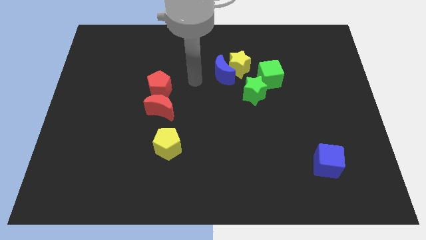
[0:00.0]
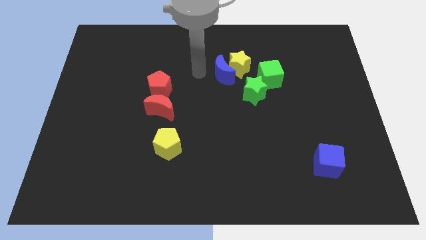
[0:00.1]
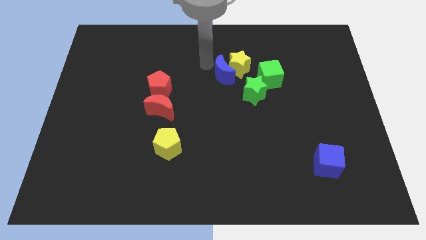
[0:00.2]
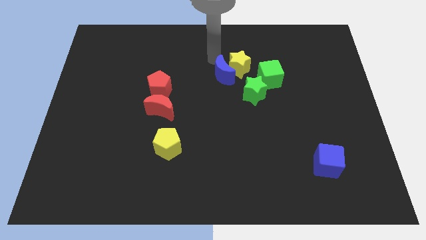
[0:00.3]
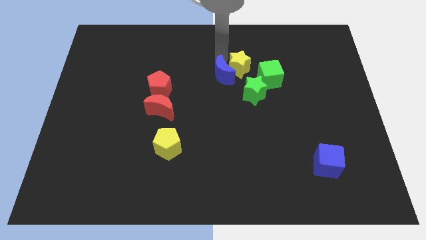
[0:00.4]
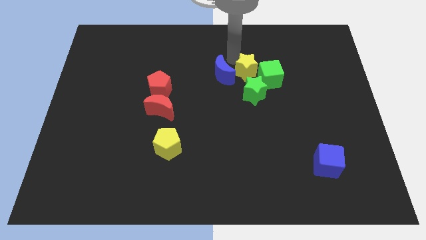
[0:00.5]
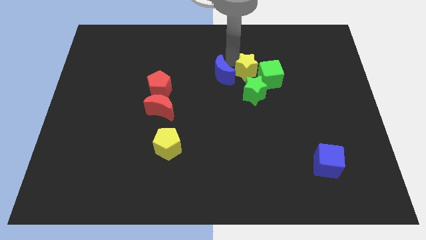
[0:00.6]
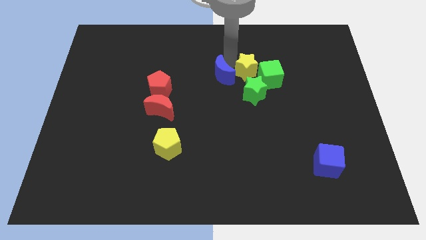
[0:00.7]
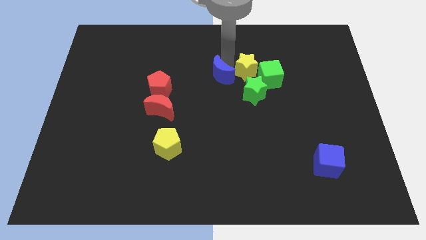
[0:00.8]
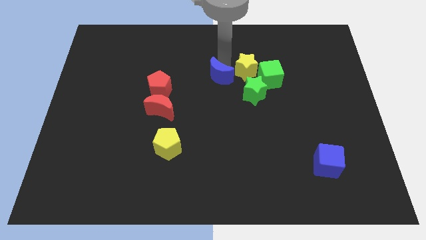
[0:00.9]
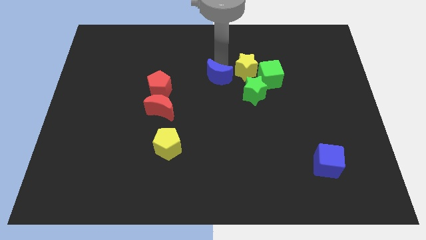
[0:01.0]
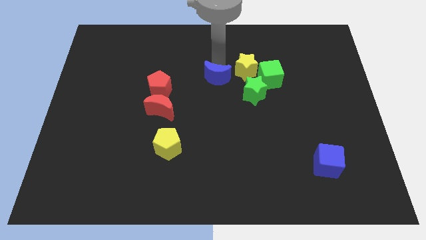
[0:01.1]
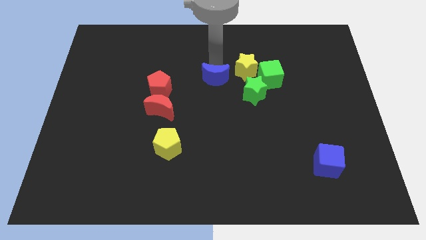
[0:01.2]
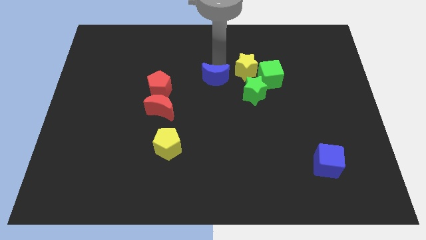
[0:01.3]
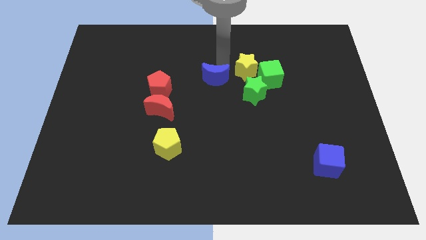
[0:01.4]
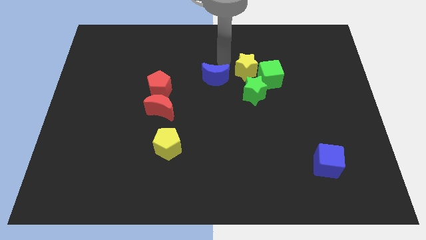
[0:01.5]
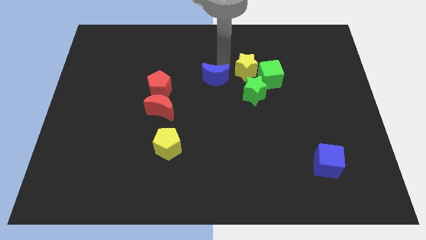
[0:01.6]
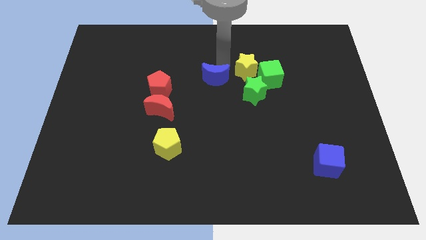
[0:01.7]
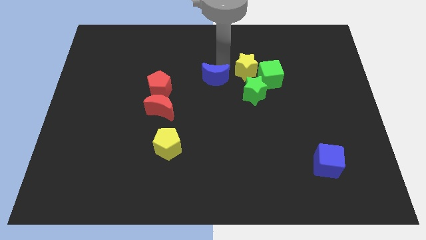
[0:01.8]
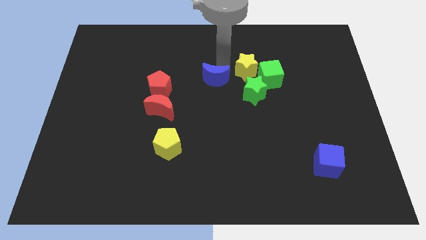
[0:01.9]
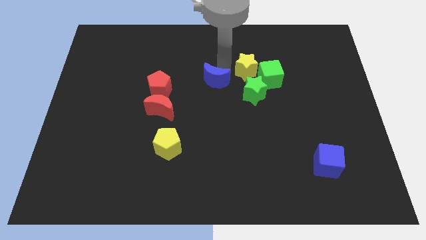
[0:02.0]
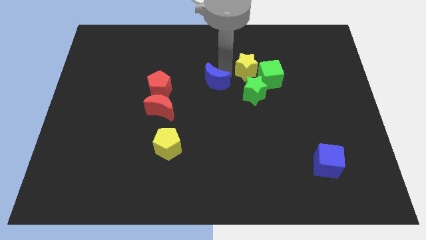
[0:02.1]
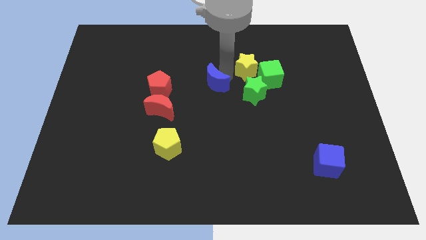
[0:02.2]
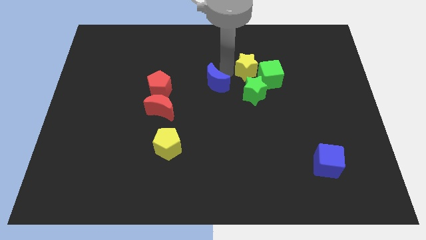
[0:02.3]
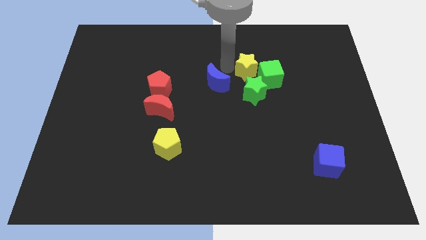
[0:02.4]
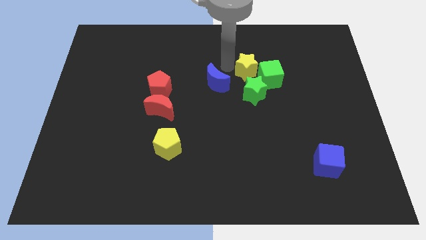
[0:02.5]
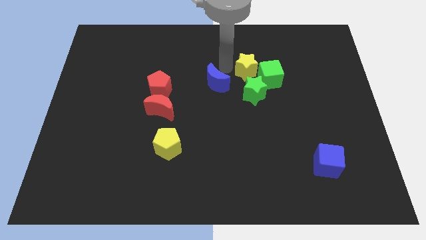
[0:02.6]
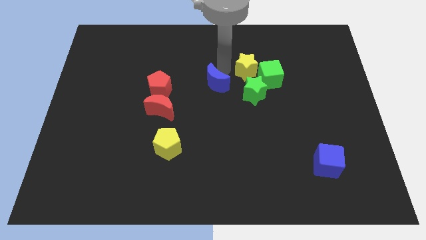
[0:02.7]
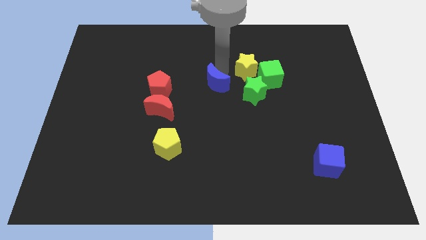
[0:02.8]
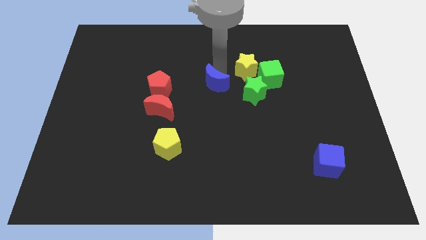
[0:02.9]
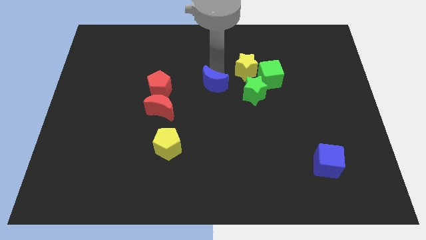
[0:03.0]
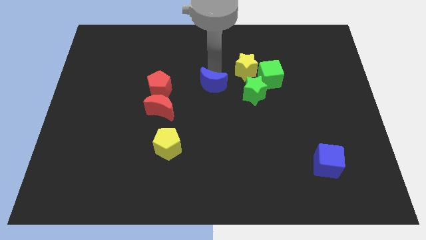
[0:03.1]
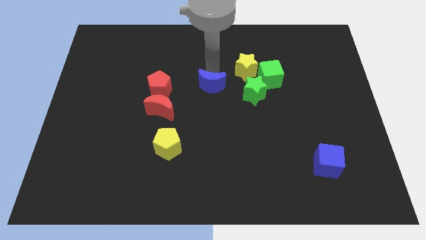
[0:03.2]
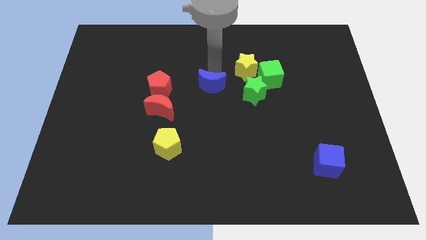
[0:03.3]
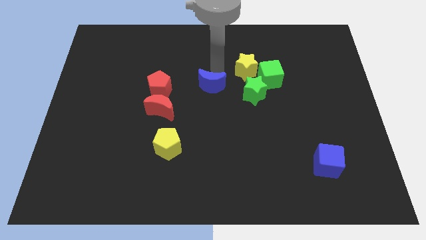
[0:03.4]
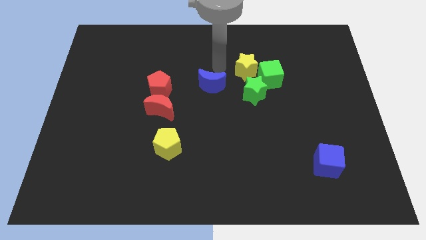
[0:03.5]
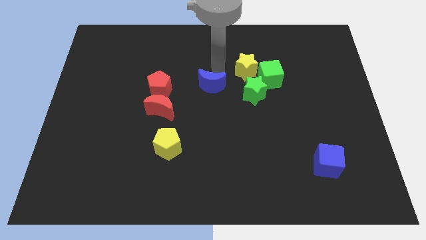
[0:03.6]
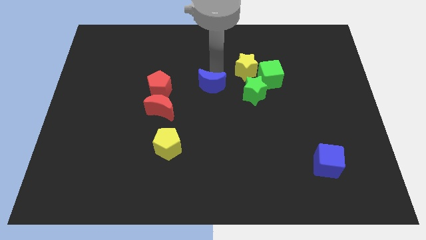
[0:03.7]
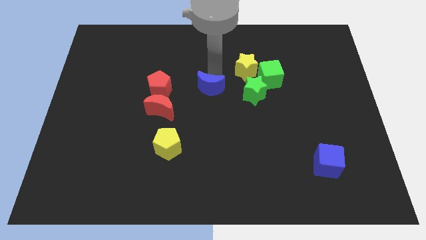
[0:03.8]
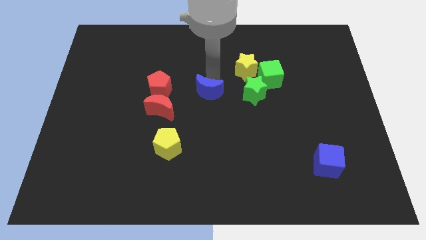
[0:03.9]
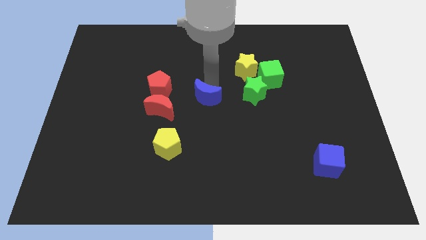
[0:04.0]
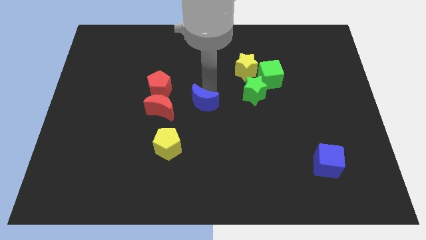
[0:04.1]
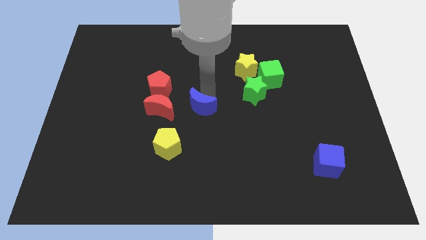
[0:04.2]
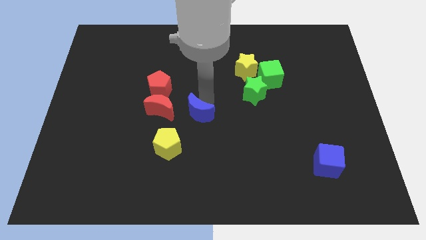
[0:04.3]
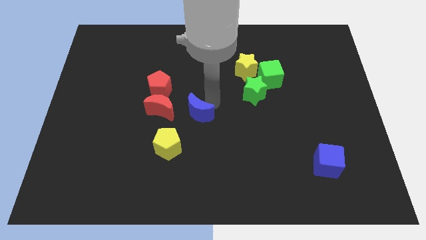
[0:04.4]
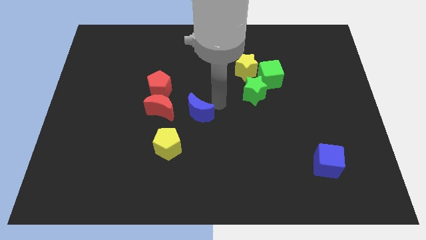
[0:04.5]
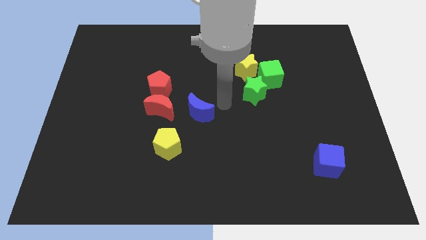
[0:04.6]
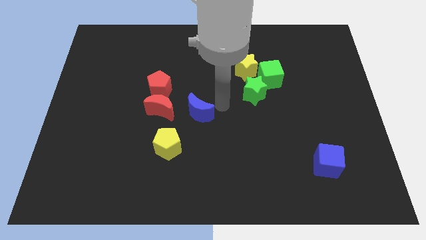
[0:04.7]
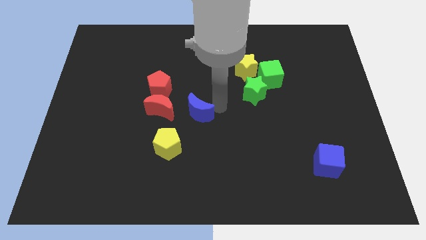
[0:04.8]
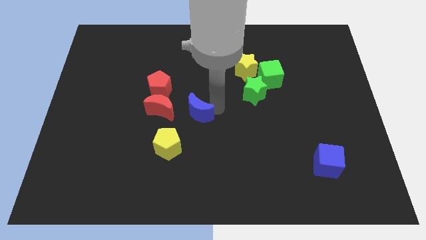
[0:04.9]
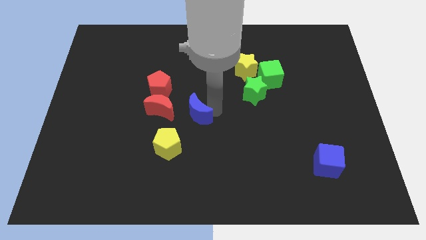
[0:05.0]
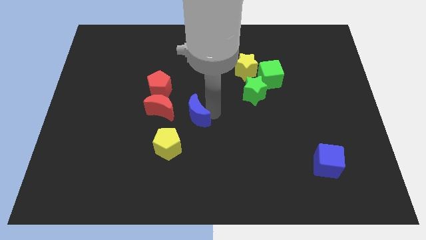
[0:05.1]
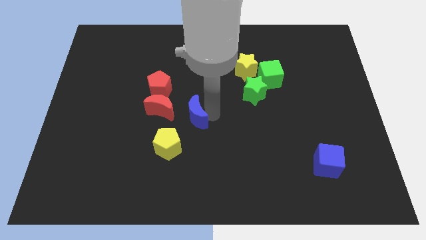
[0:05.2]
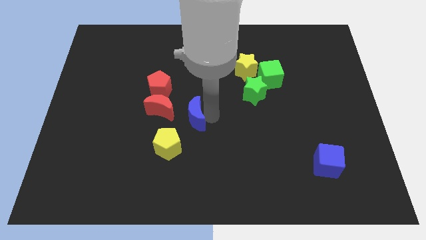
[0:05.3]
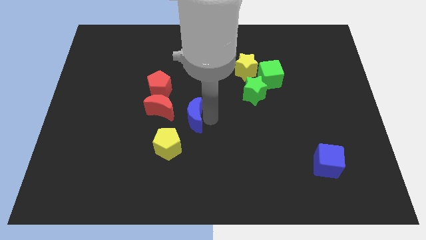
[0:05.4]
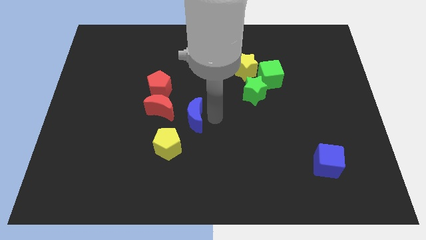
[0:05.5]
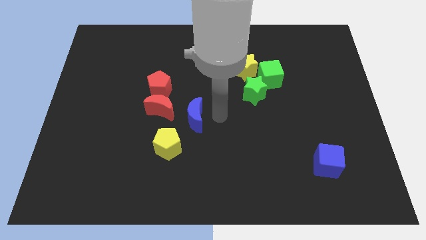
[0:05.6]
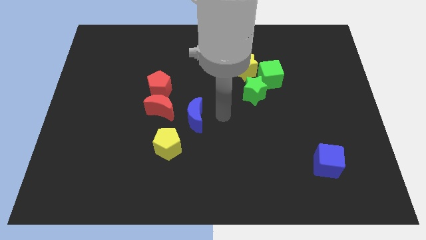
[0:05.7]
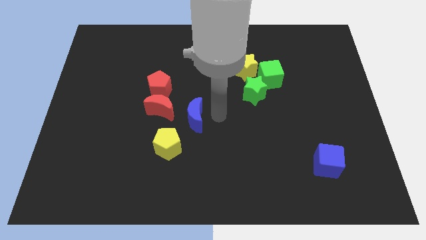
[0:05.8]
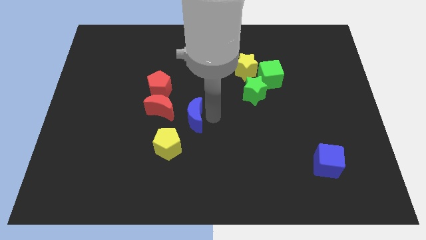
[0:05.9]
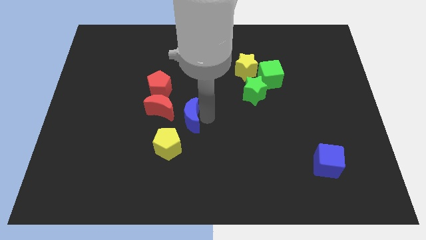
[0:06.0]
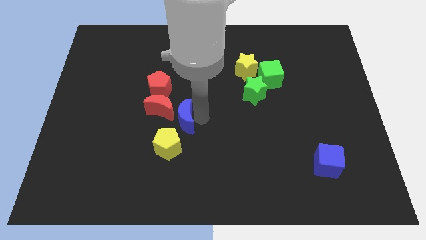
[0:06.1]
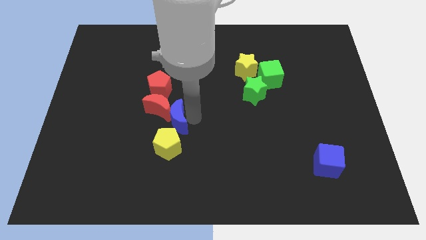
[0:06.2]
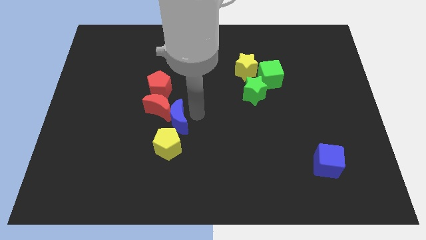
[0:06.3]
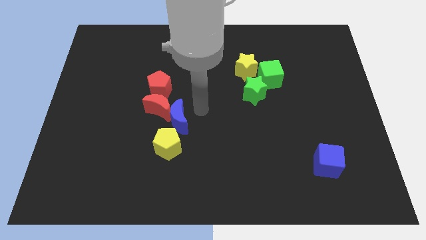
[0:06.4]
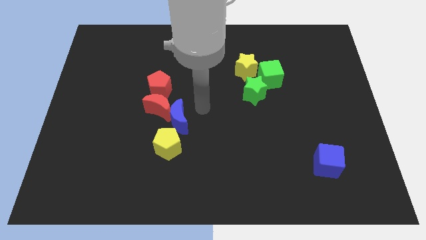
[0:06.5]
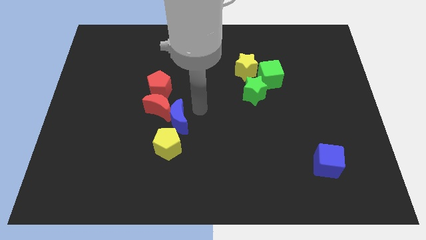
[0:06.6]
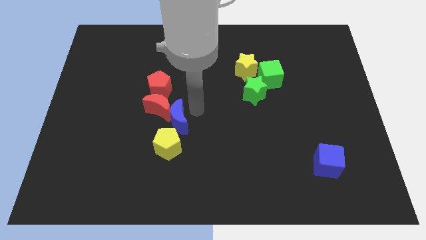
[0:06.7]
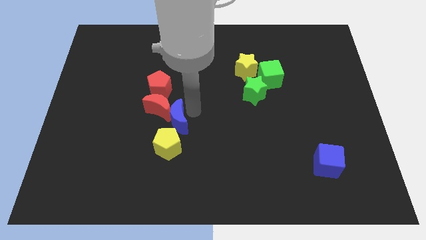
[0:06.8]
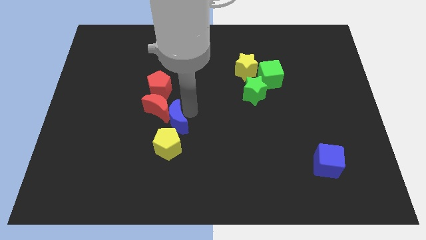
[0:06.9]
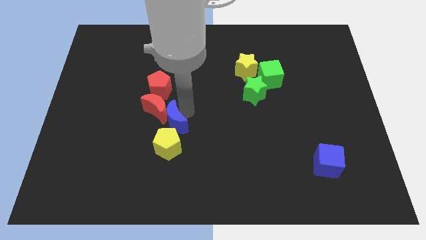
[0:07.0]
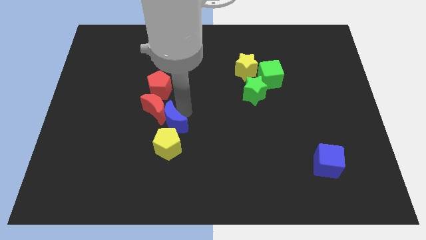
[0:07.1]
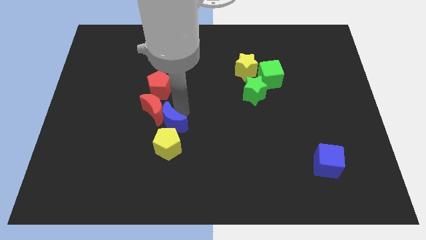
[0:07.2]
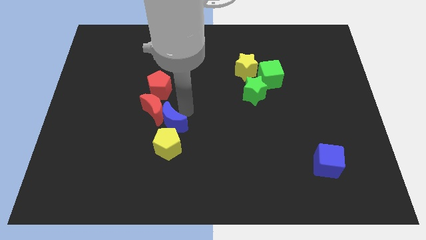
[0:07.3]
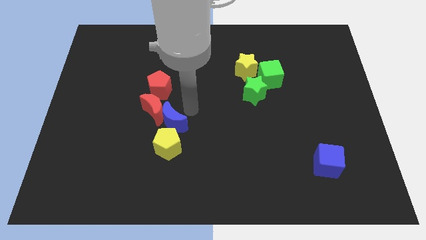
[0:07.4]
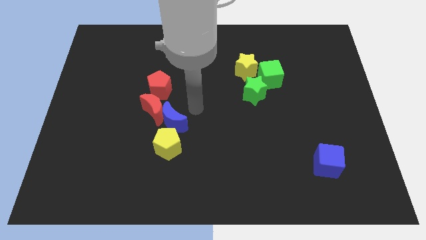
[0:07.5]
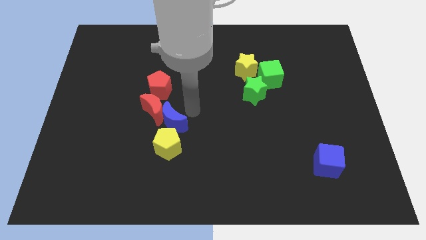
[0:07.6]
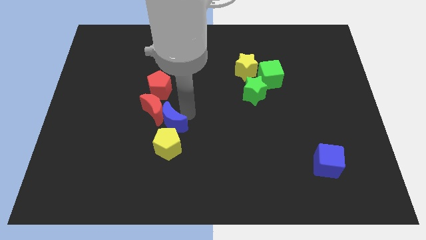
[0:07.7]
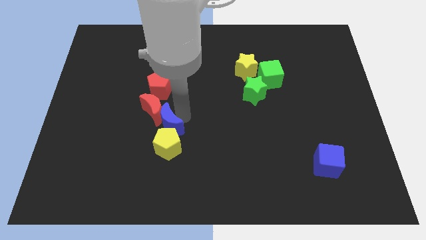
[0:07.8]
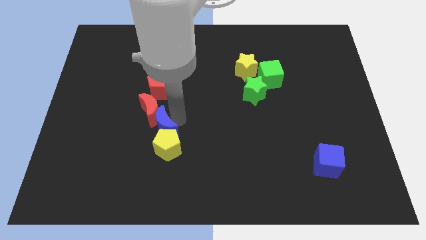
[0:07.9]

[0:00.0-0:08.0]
push the blue moon diagonally downwards and left
